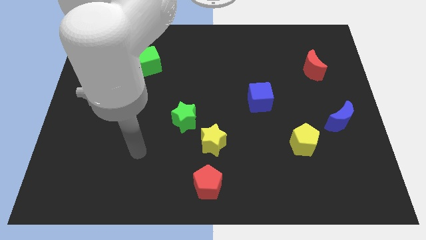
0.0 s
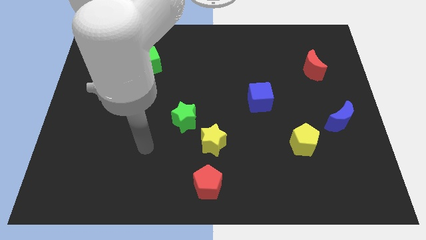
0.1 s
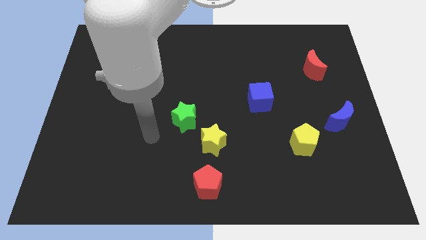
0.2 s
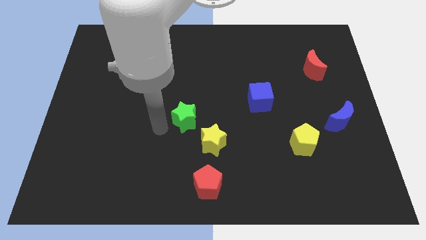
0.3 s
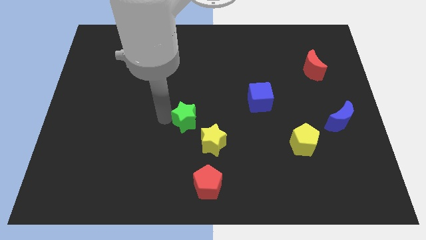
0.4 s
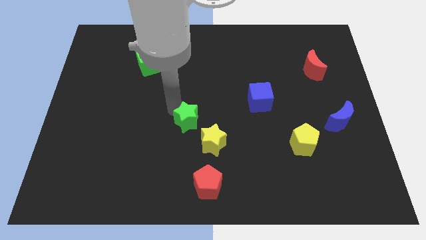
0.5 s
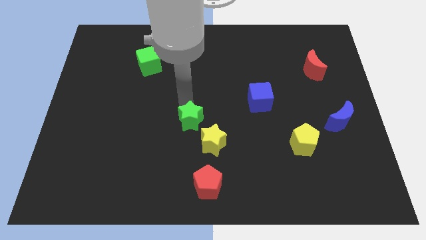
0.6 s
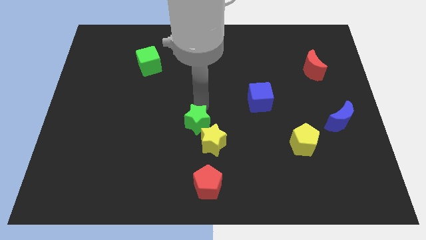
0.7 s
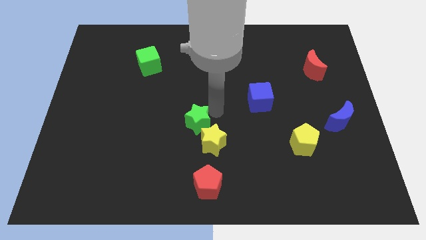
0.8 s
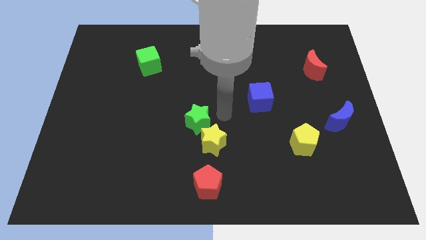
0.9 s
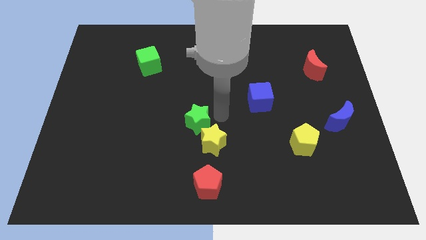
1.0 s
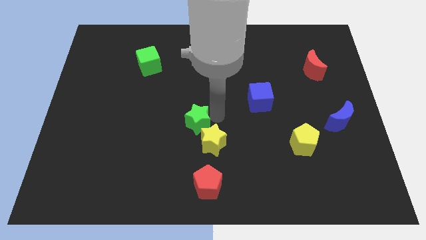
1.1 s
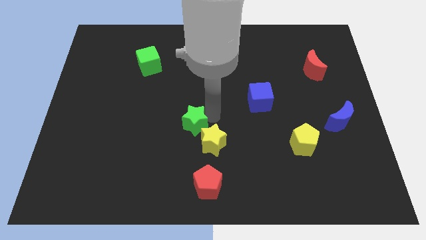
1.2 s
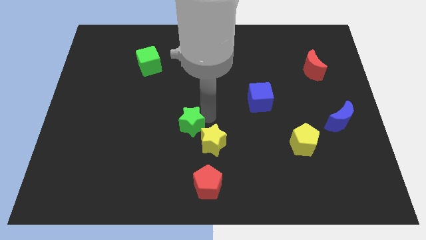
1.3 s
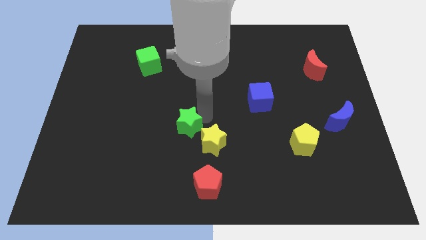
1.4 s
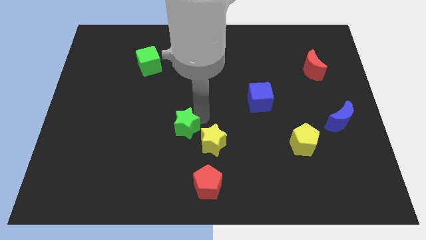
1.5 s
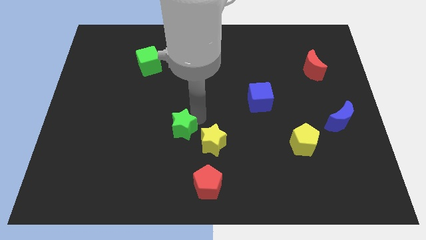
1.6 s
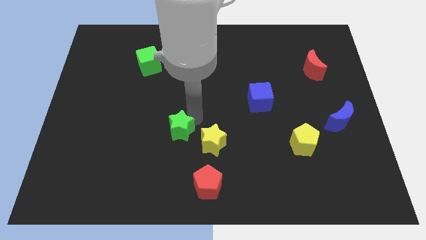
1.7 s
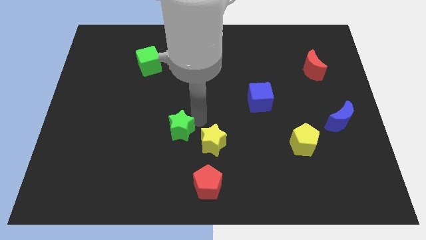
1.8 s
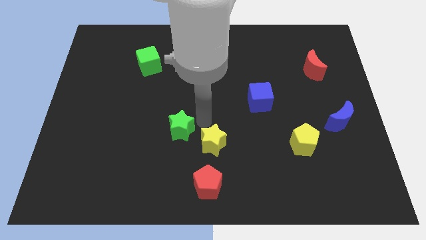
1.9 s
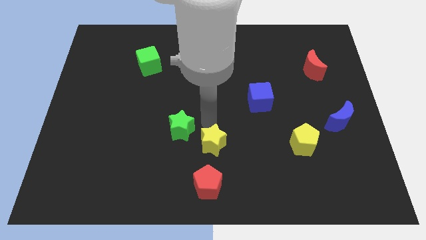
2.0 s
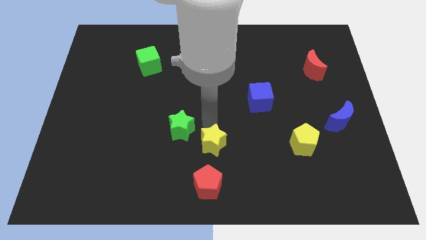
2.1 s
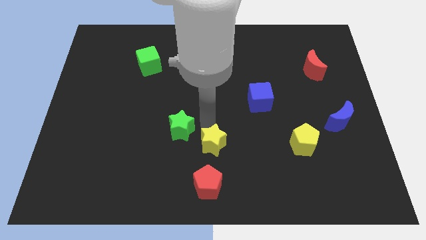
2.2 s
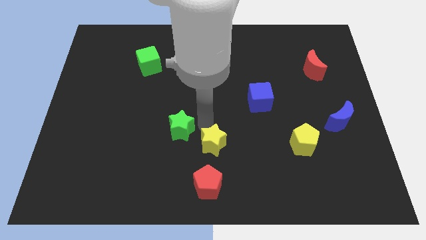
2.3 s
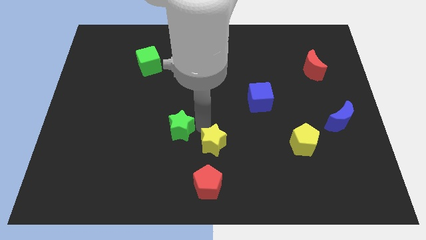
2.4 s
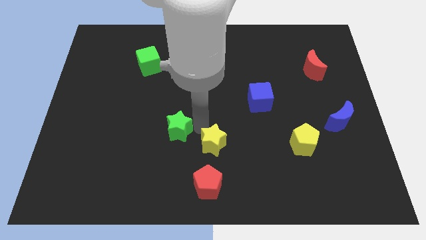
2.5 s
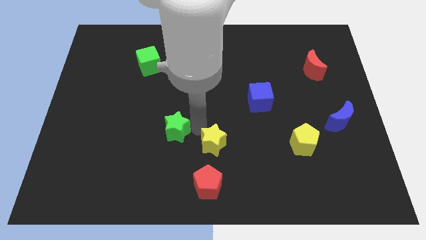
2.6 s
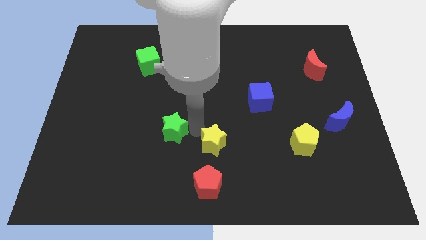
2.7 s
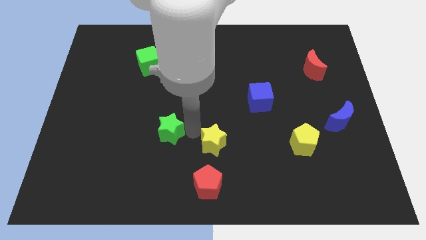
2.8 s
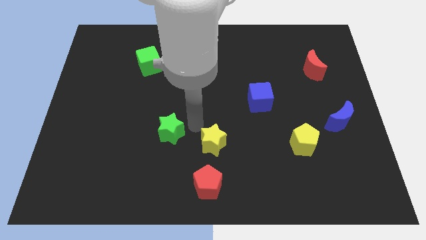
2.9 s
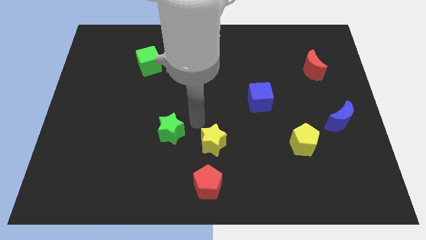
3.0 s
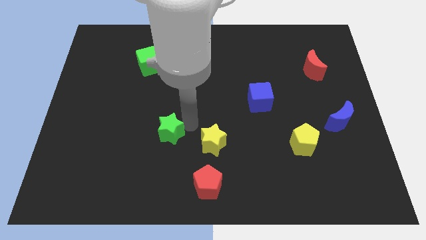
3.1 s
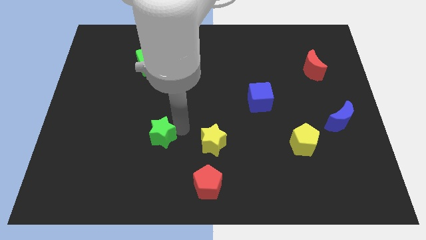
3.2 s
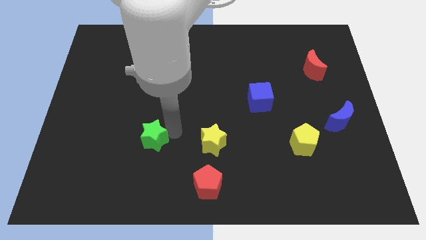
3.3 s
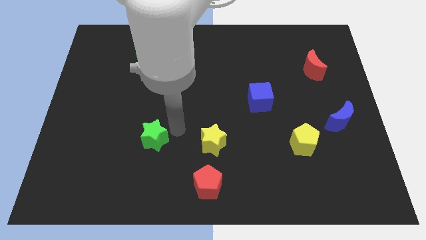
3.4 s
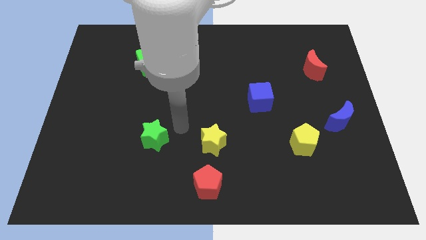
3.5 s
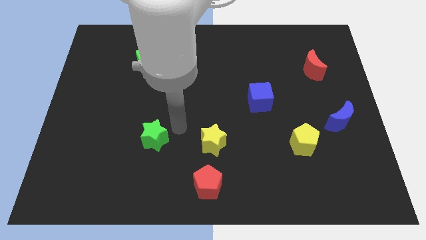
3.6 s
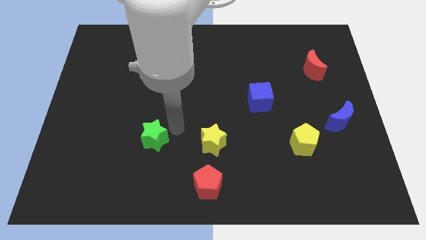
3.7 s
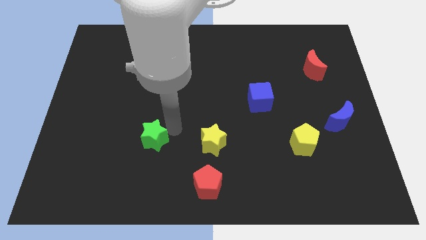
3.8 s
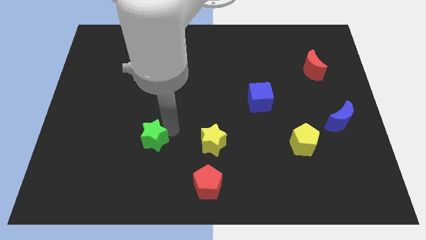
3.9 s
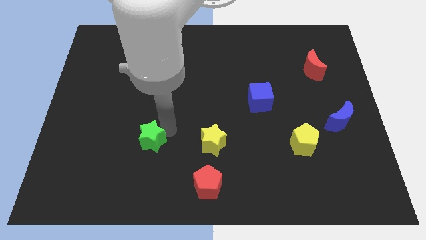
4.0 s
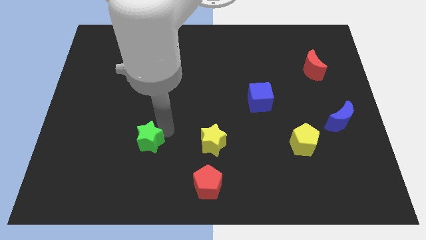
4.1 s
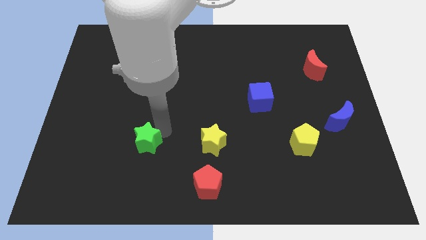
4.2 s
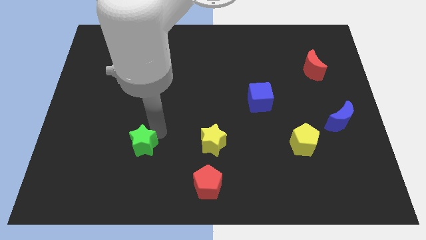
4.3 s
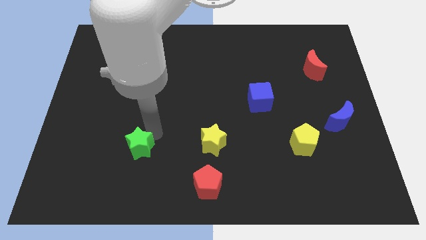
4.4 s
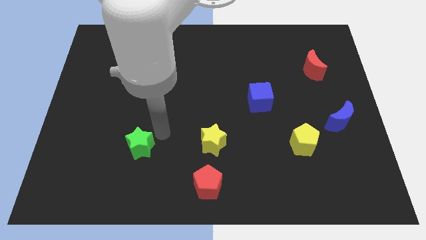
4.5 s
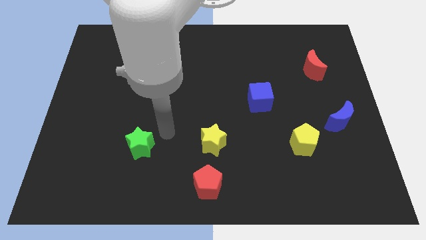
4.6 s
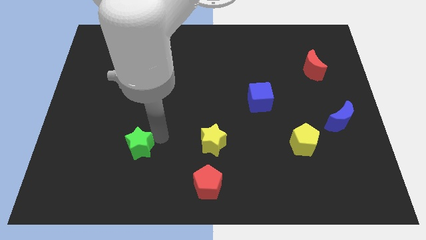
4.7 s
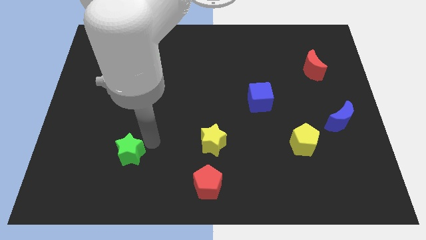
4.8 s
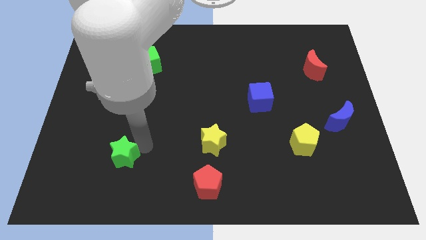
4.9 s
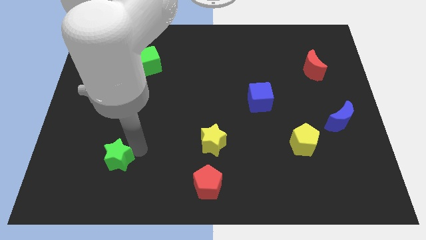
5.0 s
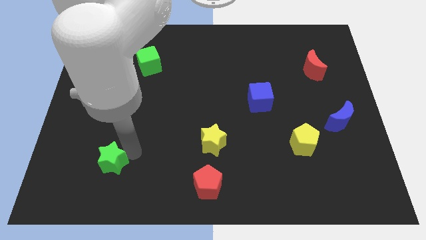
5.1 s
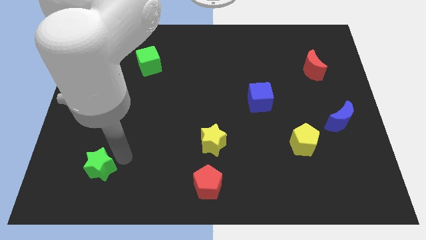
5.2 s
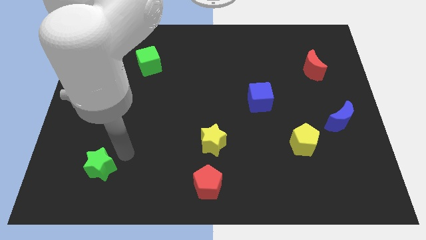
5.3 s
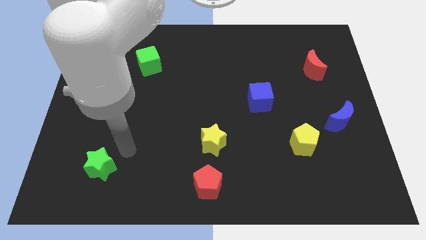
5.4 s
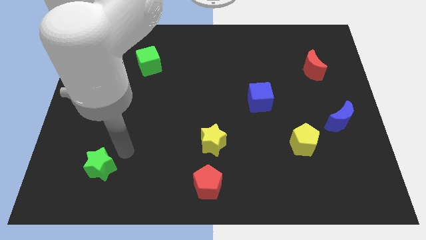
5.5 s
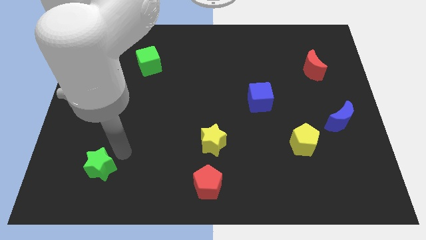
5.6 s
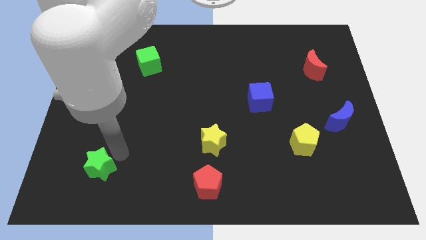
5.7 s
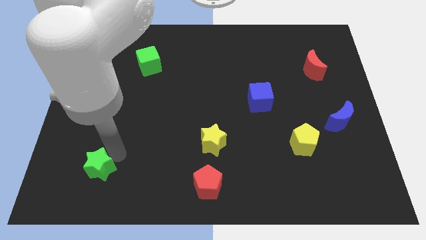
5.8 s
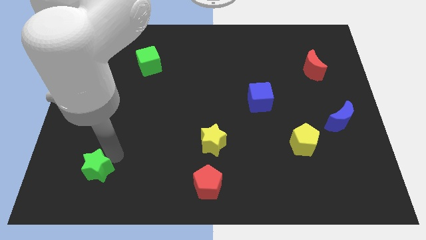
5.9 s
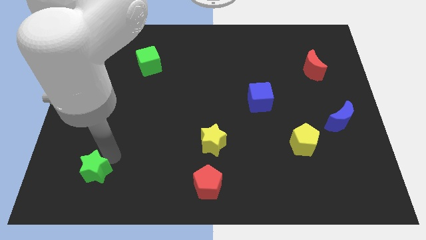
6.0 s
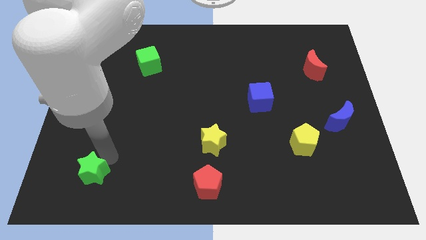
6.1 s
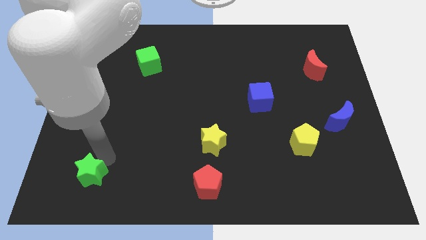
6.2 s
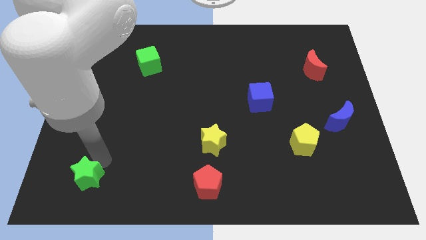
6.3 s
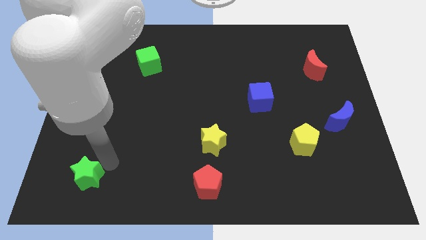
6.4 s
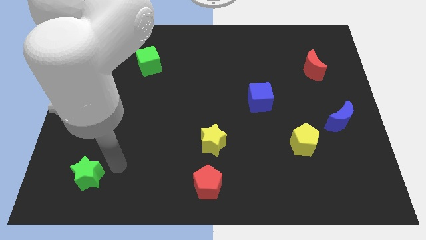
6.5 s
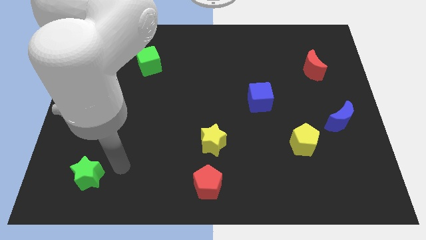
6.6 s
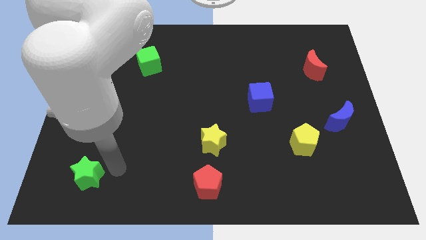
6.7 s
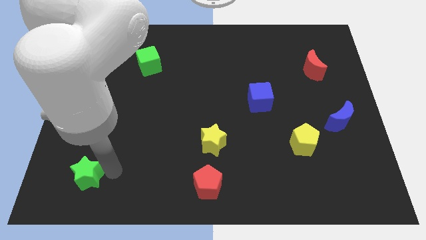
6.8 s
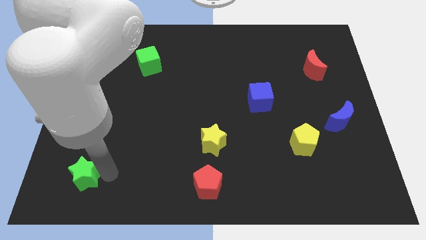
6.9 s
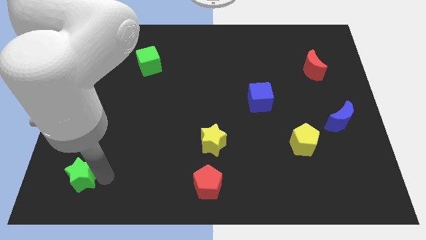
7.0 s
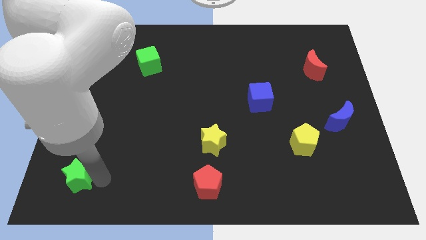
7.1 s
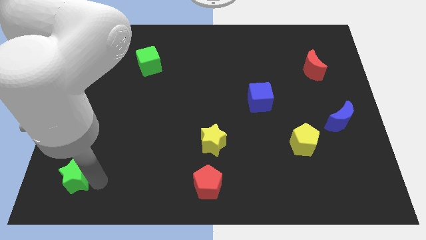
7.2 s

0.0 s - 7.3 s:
put the green star to the bottom left corner

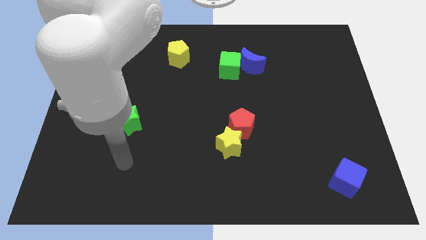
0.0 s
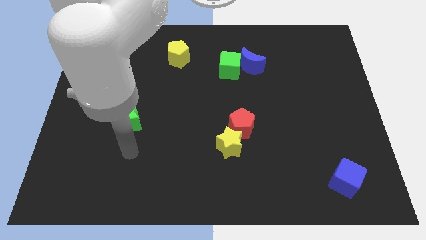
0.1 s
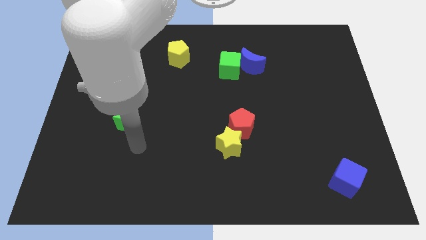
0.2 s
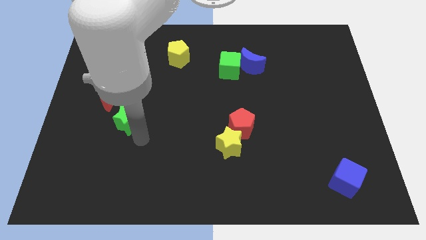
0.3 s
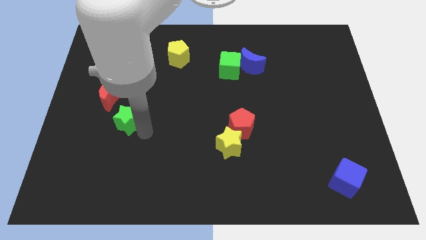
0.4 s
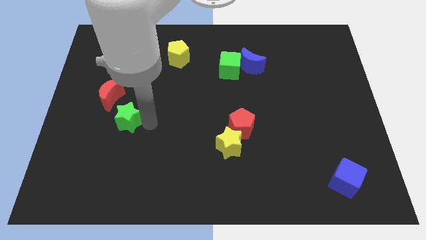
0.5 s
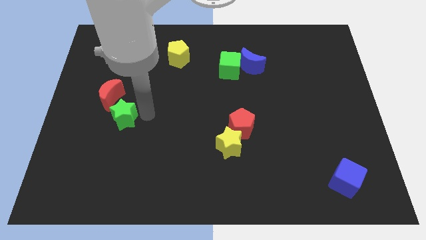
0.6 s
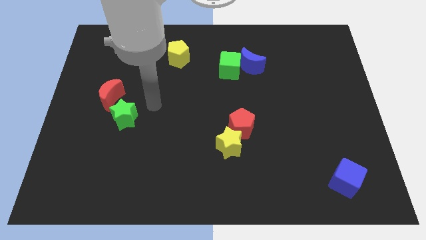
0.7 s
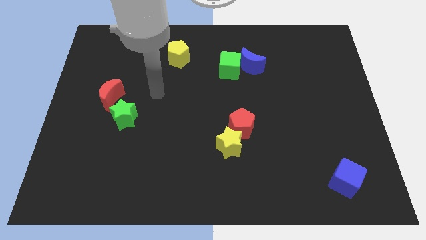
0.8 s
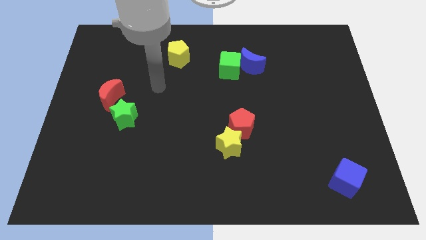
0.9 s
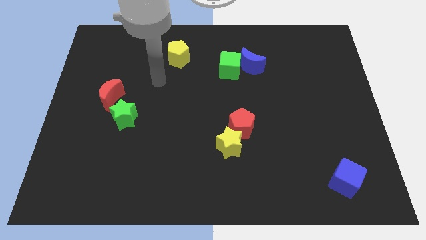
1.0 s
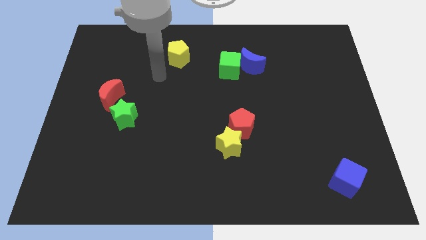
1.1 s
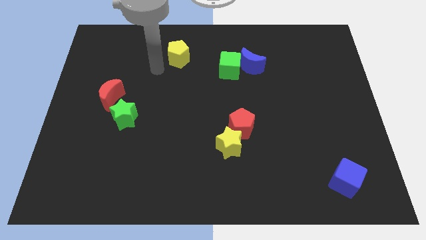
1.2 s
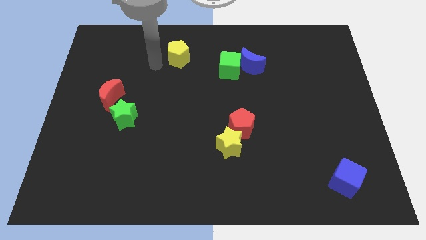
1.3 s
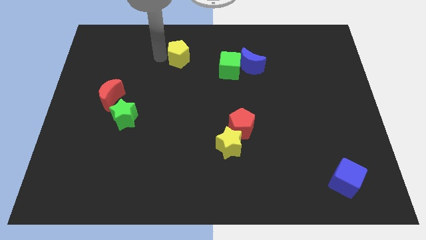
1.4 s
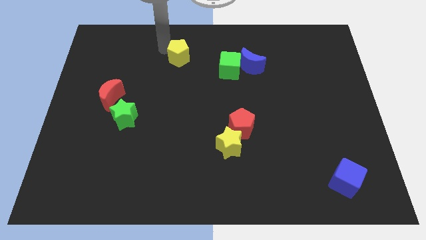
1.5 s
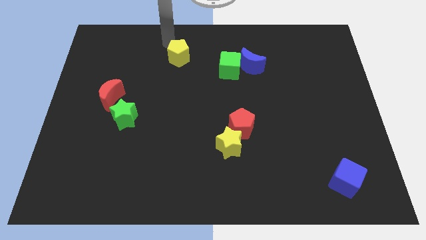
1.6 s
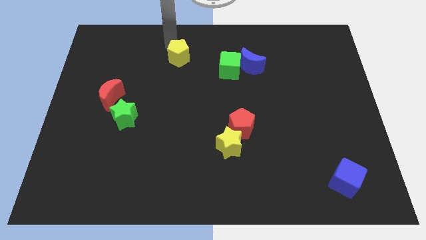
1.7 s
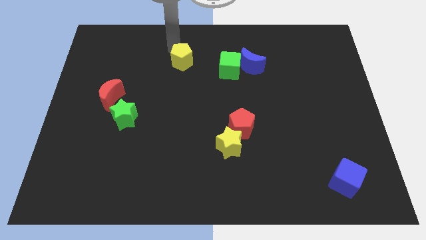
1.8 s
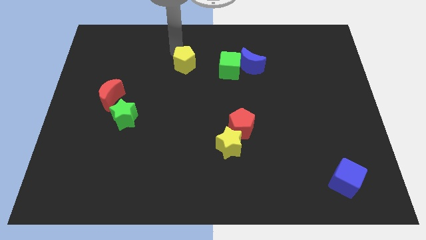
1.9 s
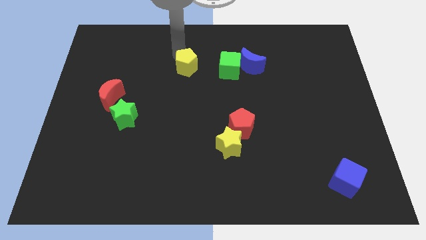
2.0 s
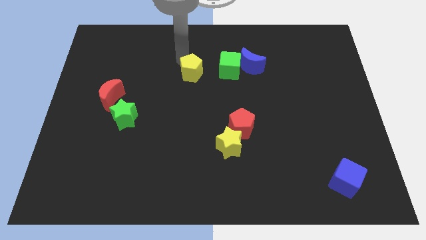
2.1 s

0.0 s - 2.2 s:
move the yellow pentagon to the center of the board
